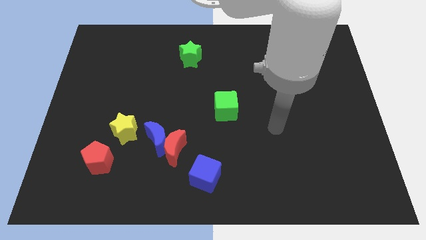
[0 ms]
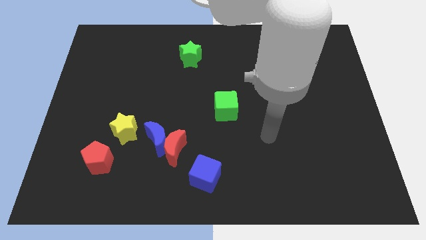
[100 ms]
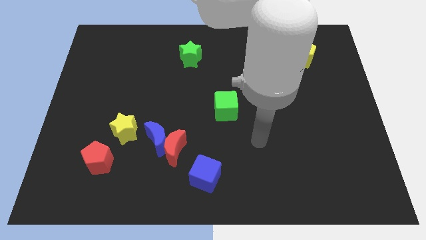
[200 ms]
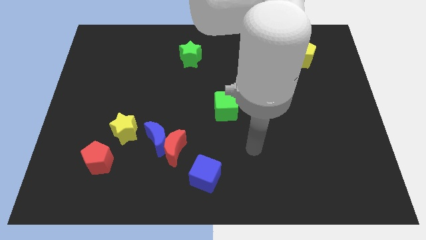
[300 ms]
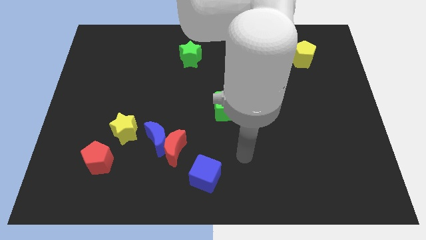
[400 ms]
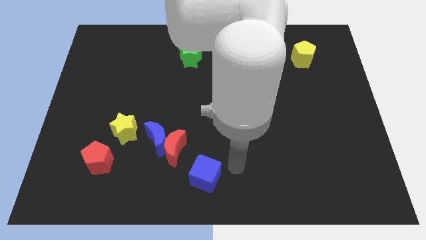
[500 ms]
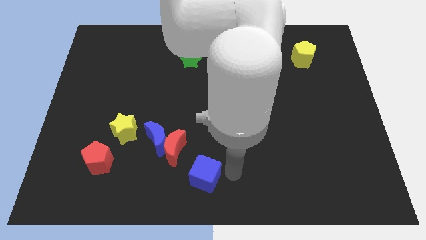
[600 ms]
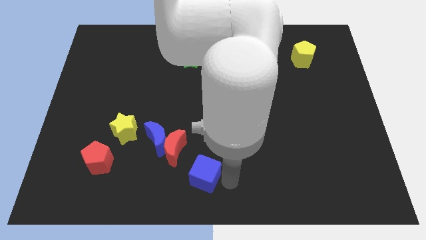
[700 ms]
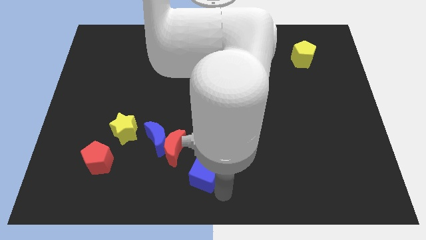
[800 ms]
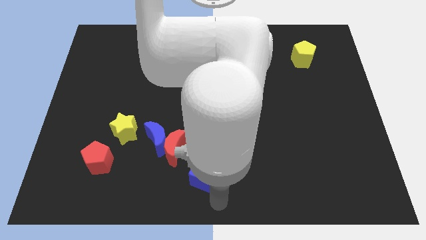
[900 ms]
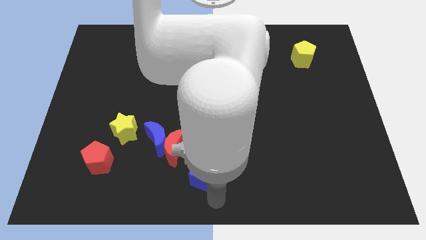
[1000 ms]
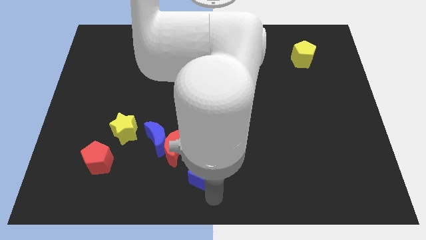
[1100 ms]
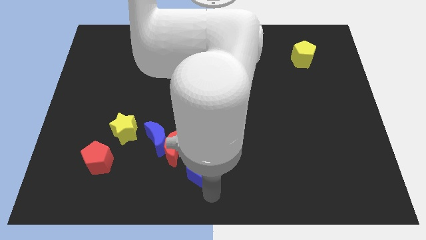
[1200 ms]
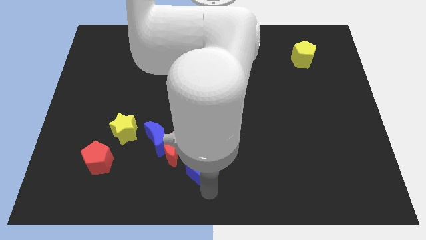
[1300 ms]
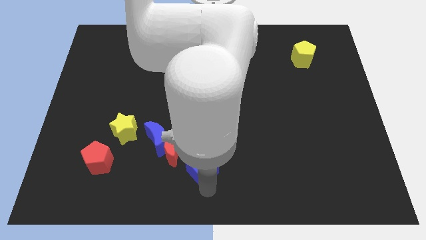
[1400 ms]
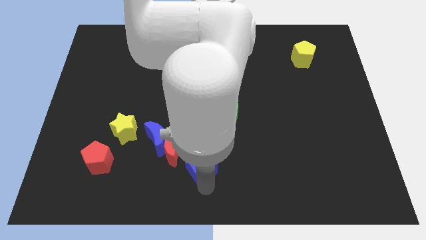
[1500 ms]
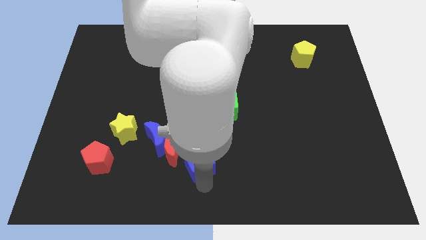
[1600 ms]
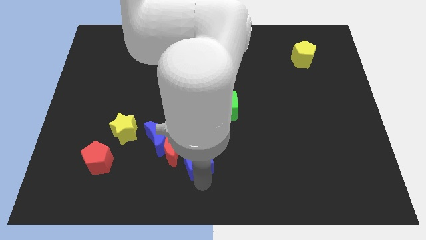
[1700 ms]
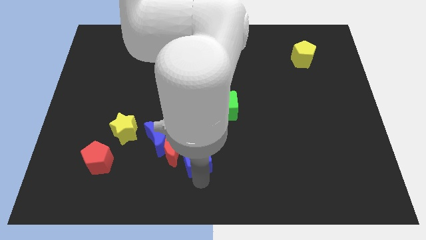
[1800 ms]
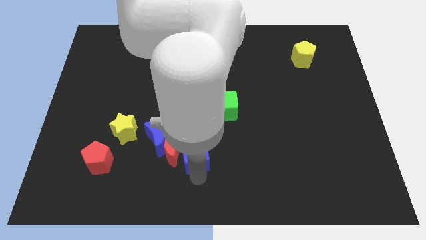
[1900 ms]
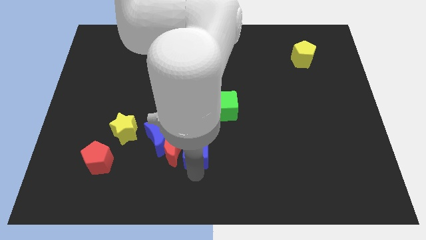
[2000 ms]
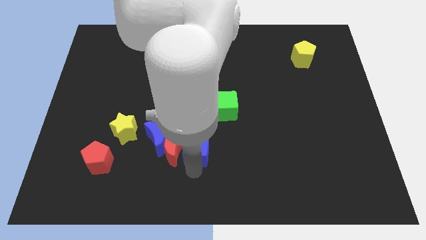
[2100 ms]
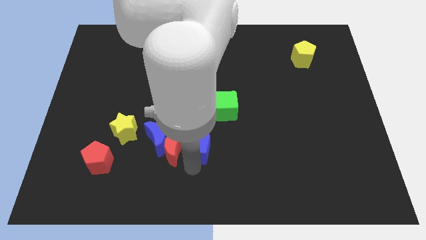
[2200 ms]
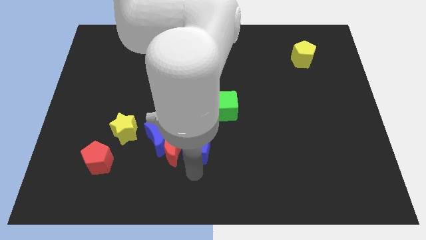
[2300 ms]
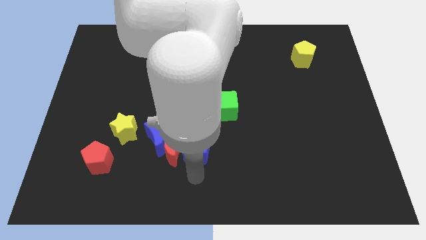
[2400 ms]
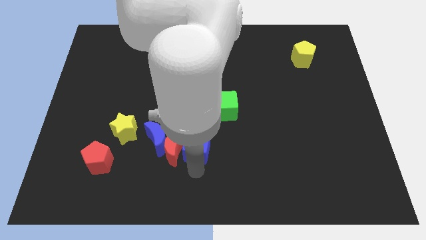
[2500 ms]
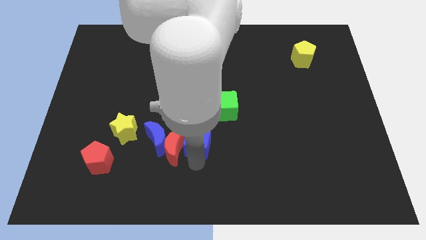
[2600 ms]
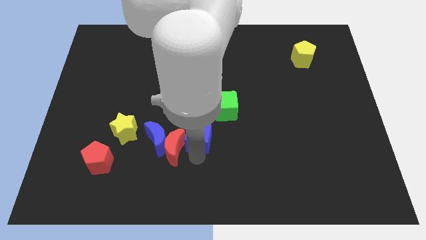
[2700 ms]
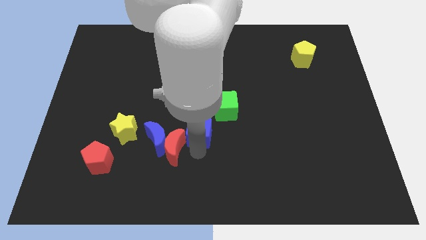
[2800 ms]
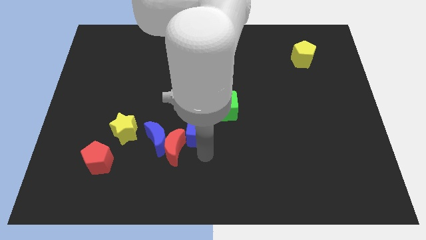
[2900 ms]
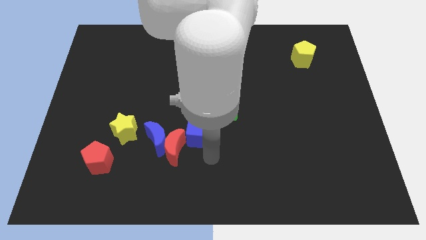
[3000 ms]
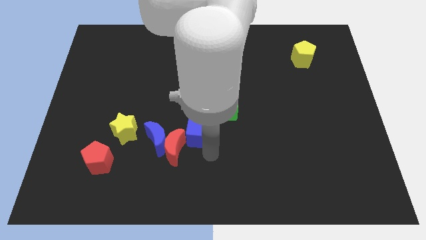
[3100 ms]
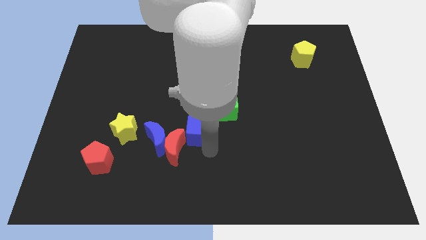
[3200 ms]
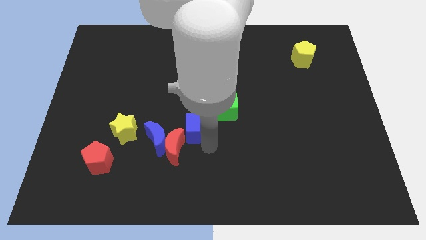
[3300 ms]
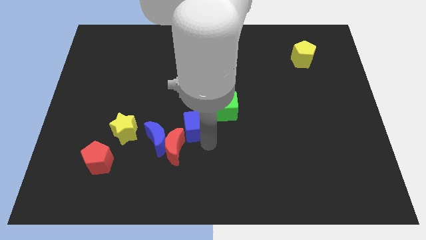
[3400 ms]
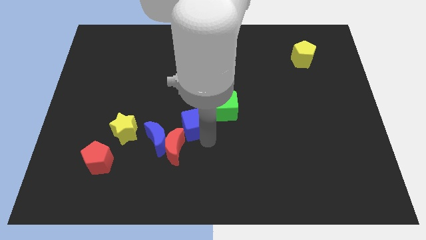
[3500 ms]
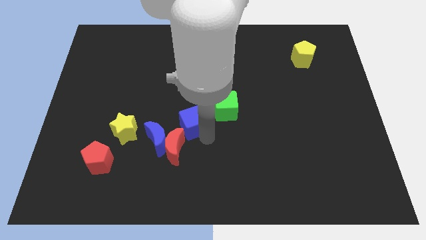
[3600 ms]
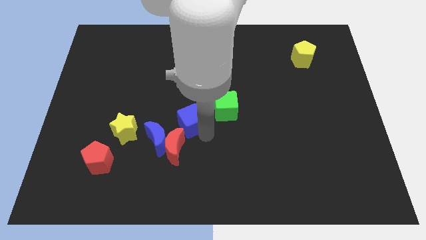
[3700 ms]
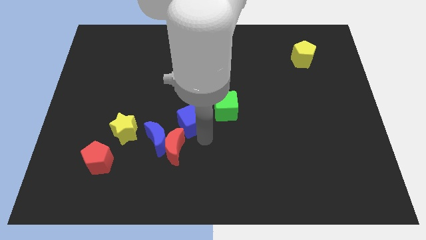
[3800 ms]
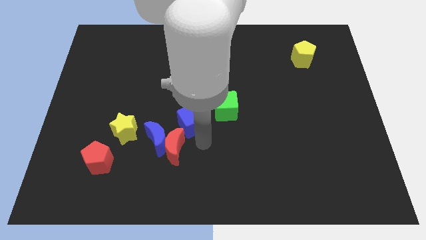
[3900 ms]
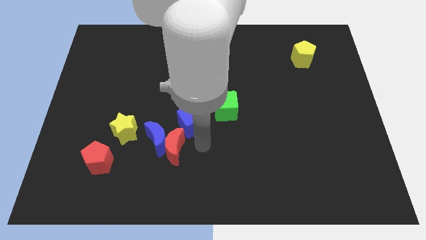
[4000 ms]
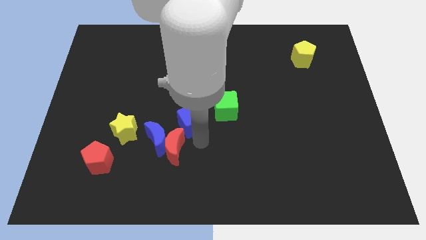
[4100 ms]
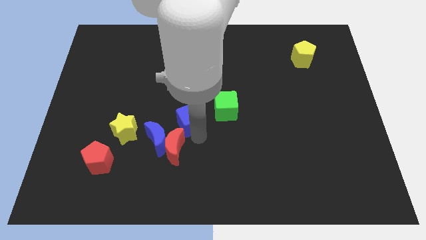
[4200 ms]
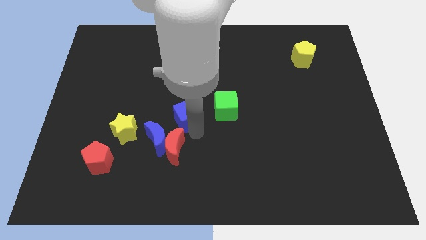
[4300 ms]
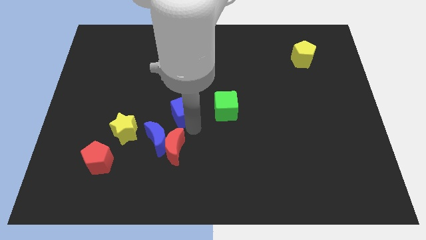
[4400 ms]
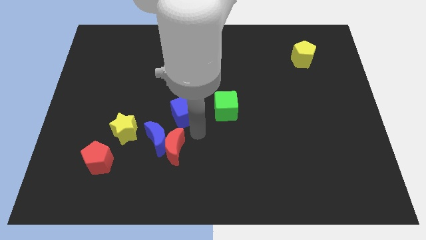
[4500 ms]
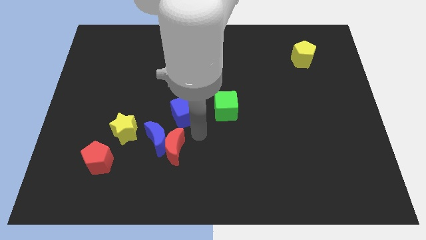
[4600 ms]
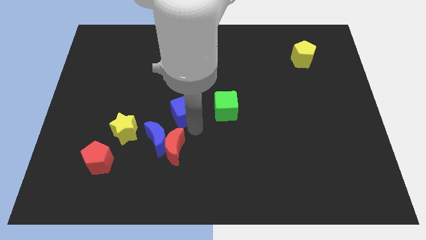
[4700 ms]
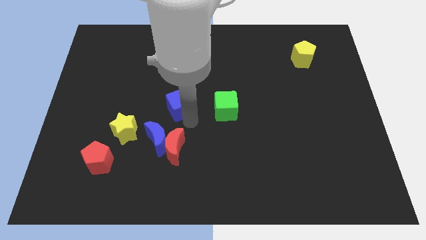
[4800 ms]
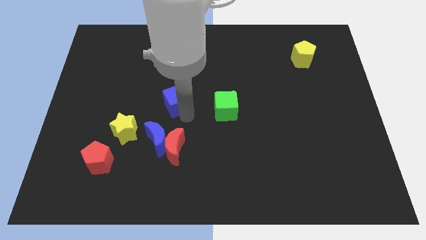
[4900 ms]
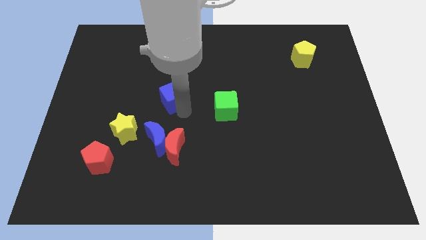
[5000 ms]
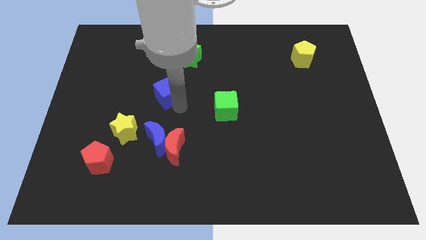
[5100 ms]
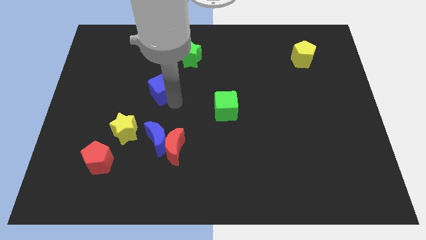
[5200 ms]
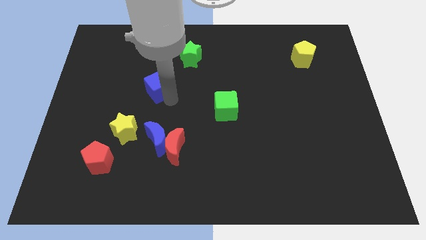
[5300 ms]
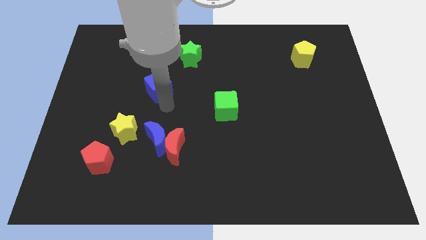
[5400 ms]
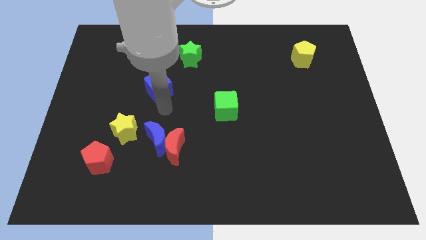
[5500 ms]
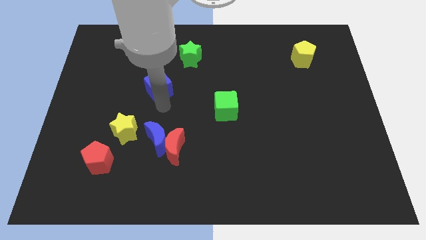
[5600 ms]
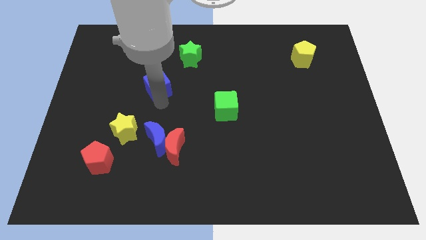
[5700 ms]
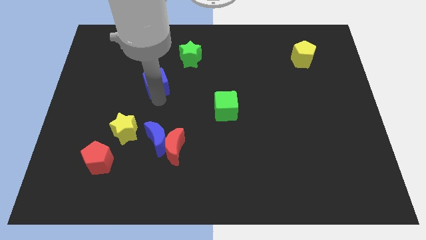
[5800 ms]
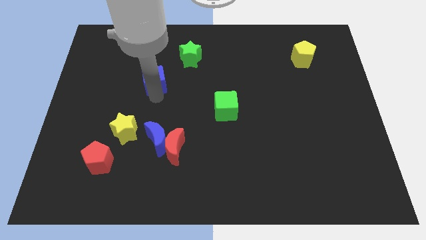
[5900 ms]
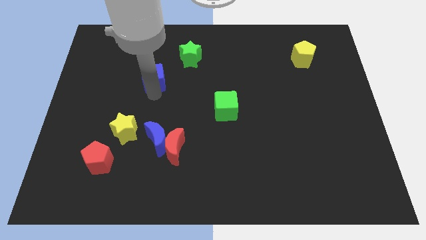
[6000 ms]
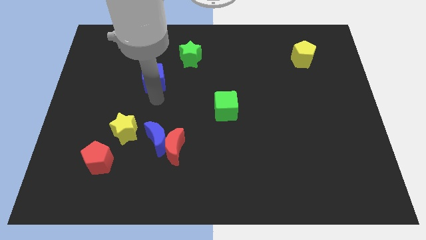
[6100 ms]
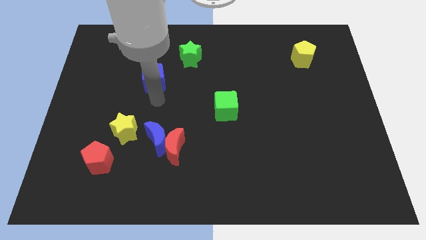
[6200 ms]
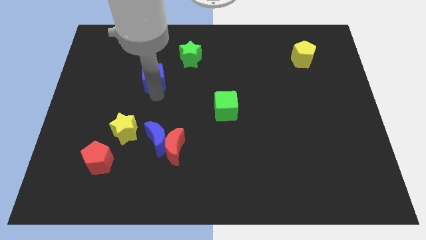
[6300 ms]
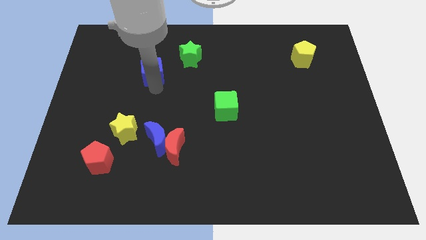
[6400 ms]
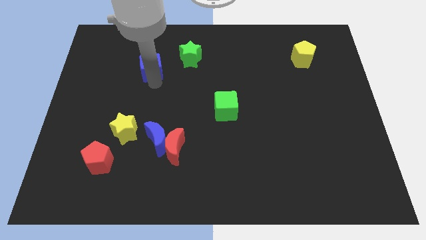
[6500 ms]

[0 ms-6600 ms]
put the blue cube to the left side of the green star

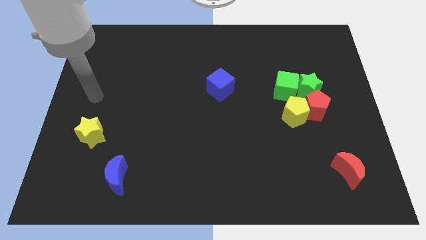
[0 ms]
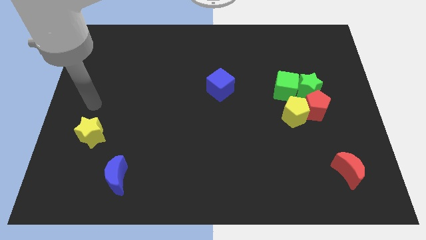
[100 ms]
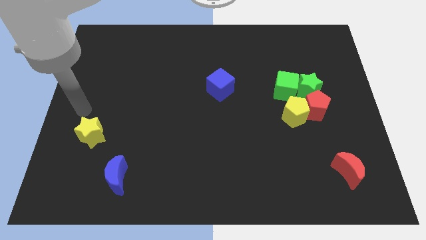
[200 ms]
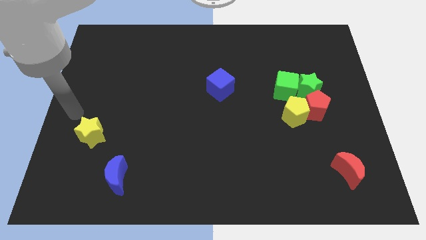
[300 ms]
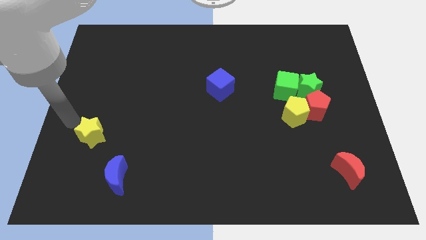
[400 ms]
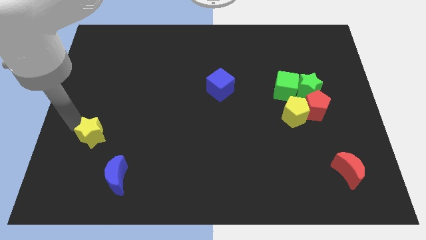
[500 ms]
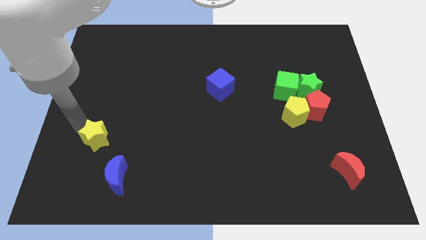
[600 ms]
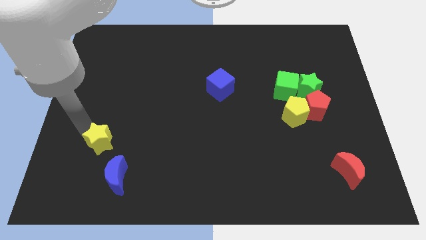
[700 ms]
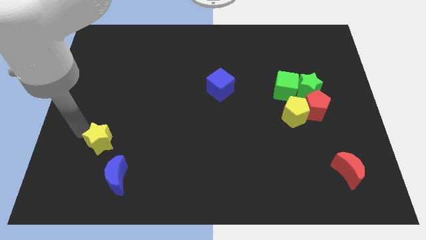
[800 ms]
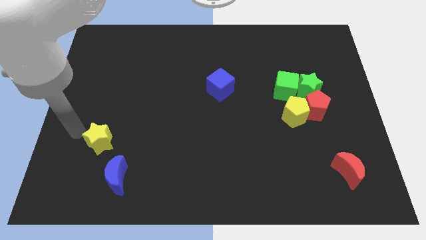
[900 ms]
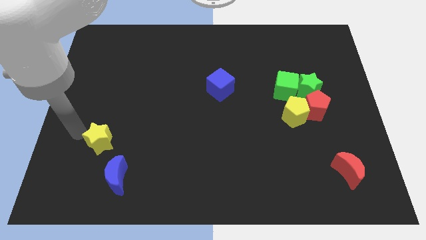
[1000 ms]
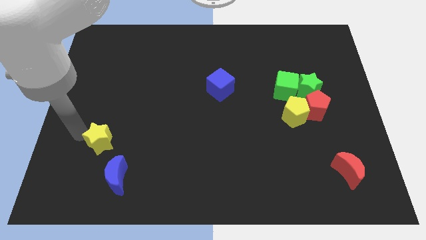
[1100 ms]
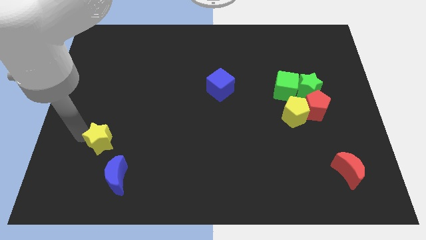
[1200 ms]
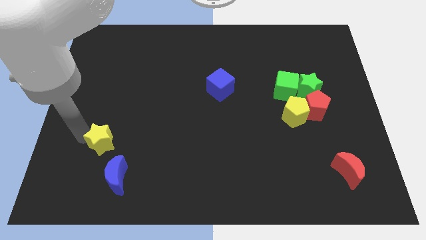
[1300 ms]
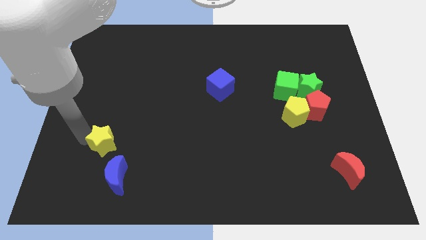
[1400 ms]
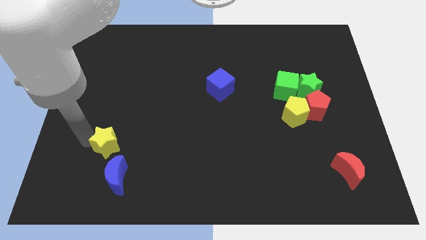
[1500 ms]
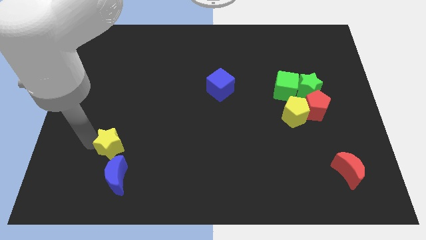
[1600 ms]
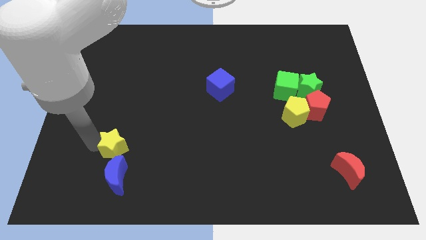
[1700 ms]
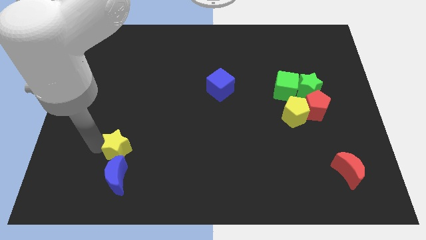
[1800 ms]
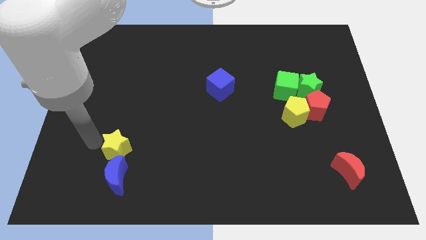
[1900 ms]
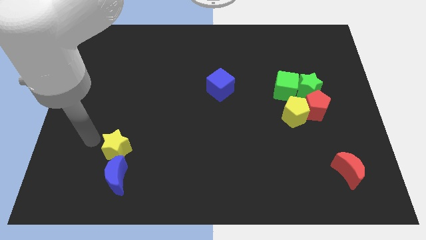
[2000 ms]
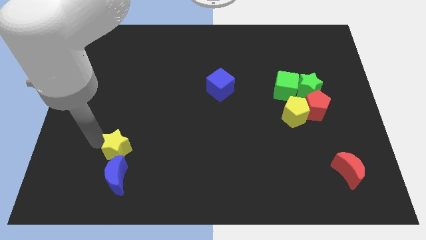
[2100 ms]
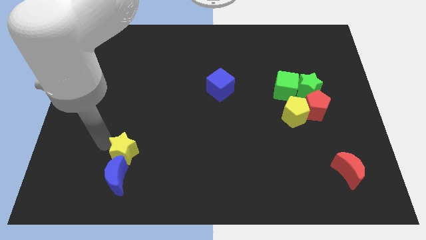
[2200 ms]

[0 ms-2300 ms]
move the yellow star to the top right side of the blue moon
